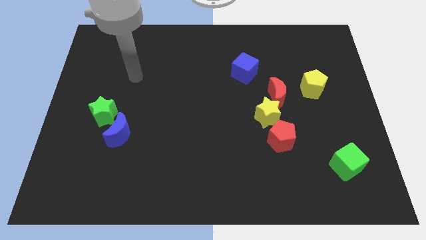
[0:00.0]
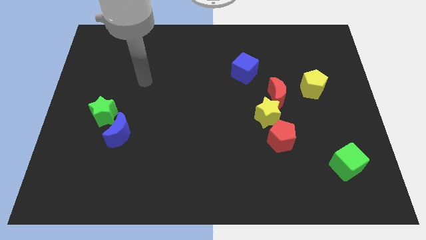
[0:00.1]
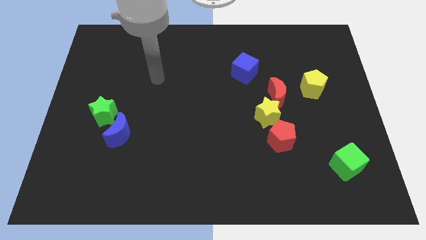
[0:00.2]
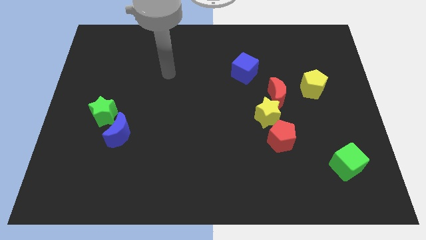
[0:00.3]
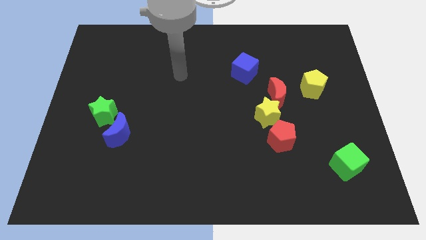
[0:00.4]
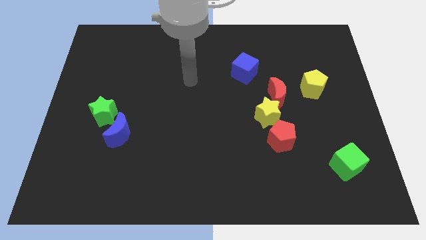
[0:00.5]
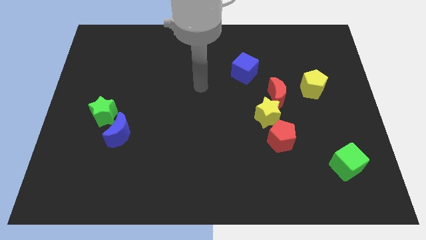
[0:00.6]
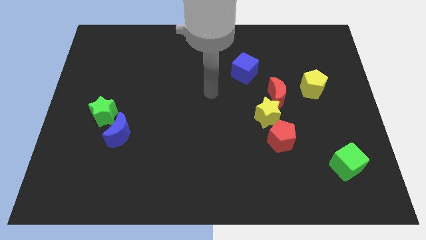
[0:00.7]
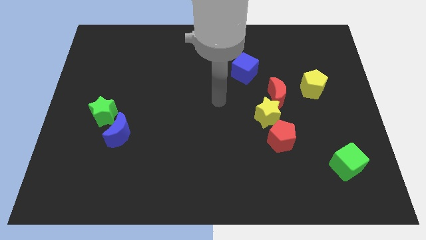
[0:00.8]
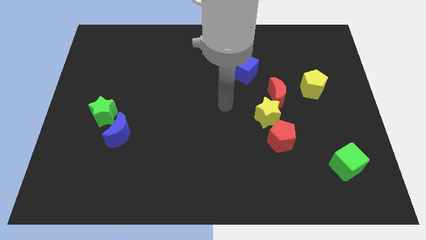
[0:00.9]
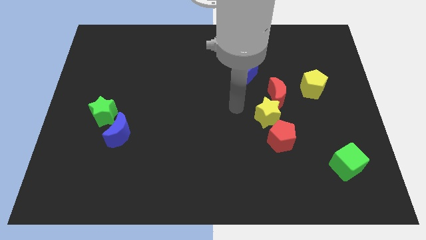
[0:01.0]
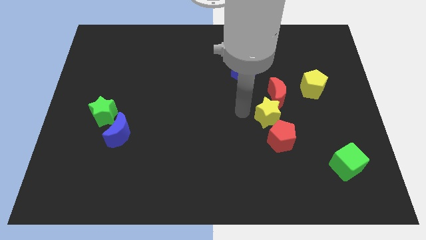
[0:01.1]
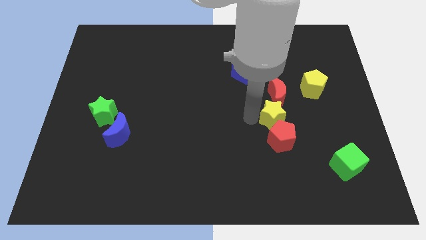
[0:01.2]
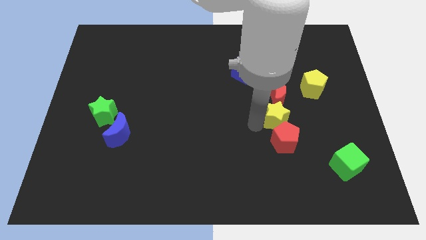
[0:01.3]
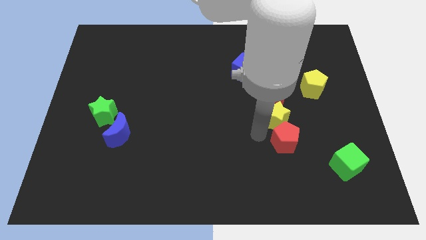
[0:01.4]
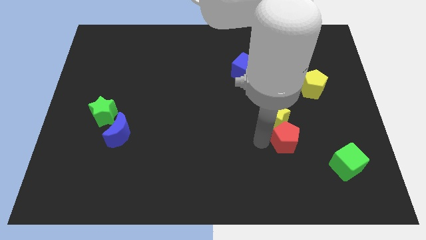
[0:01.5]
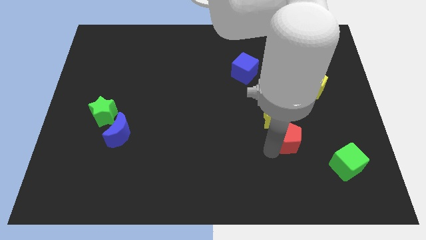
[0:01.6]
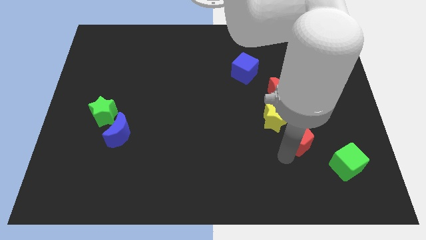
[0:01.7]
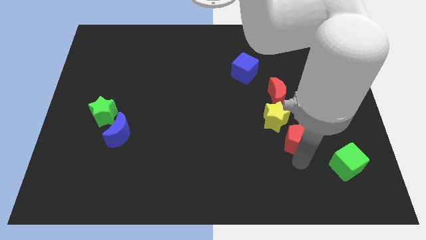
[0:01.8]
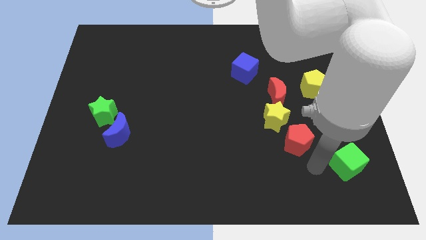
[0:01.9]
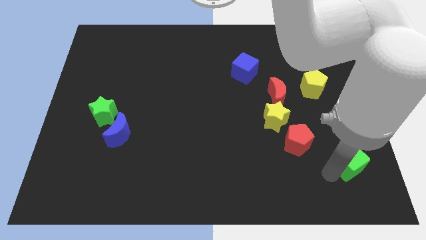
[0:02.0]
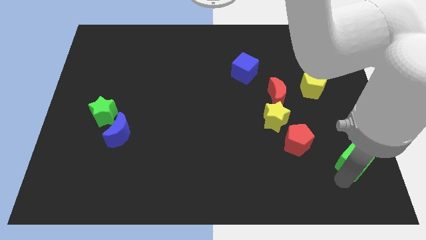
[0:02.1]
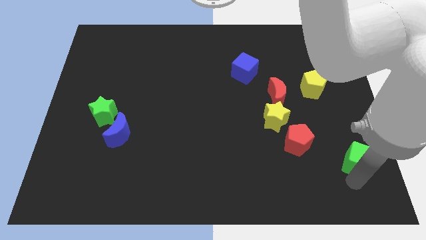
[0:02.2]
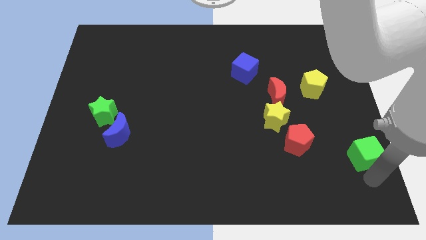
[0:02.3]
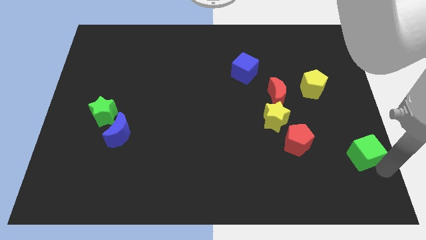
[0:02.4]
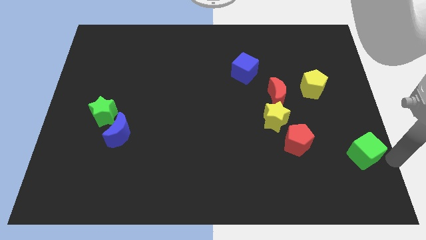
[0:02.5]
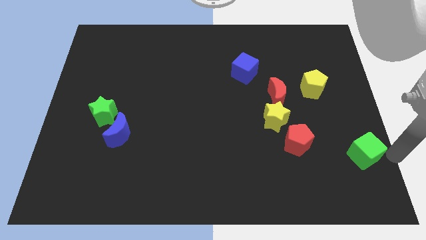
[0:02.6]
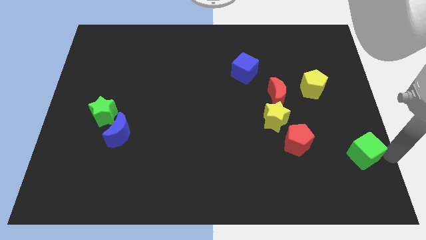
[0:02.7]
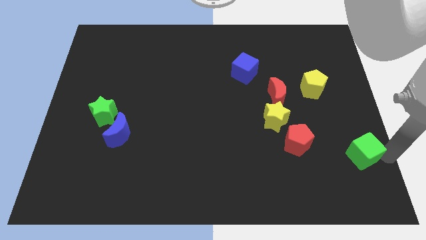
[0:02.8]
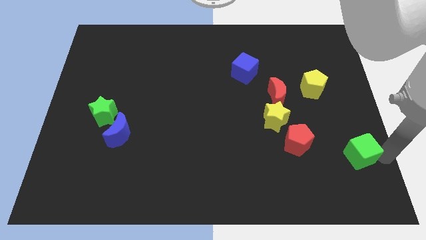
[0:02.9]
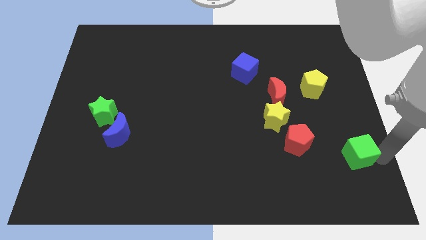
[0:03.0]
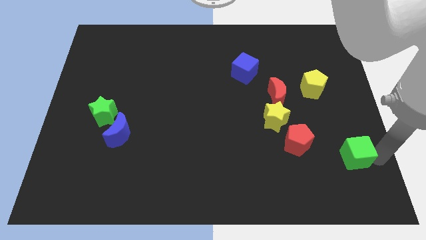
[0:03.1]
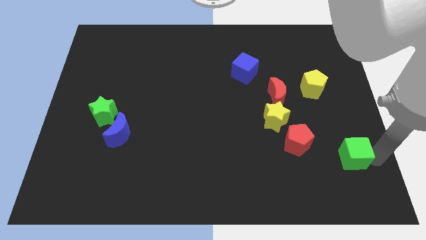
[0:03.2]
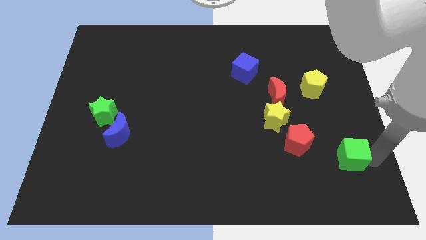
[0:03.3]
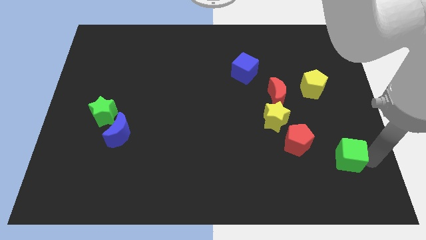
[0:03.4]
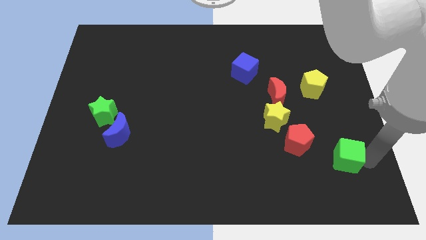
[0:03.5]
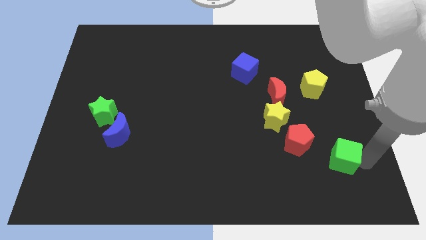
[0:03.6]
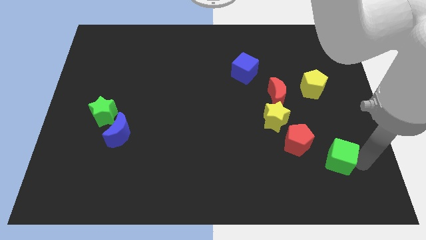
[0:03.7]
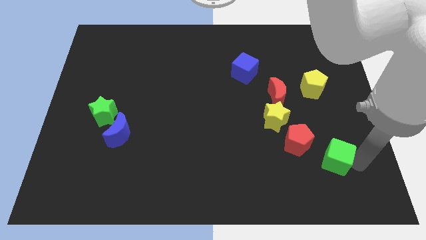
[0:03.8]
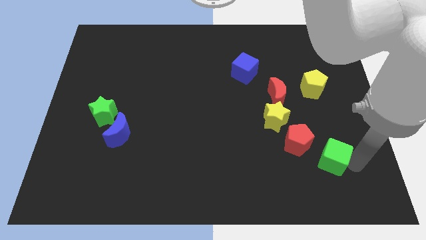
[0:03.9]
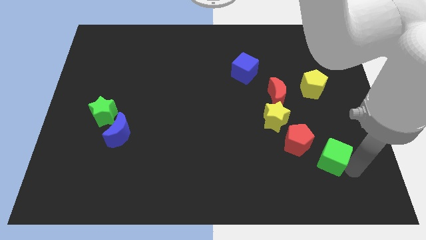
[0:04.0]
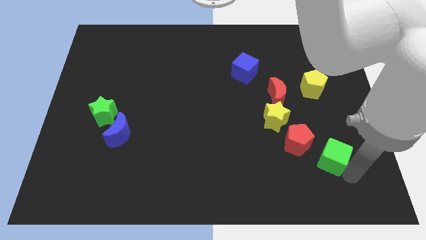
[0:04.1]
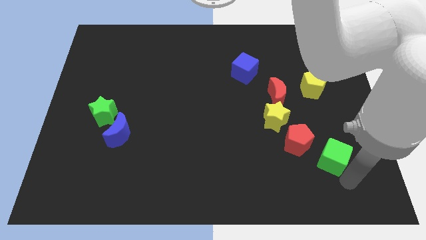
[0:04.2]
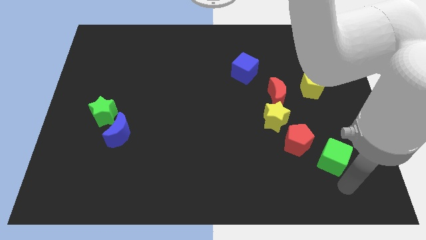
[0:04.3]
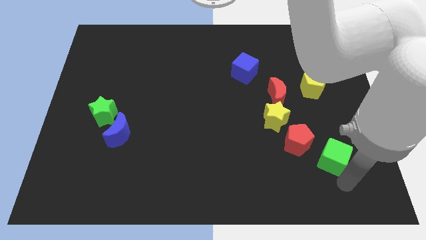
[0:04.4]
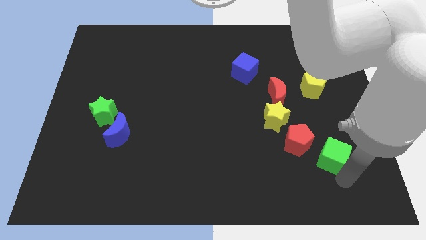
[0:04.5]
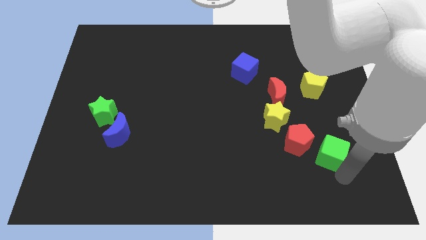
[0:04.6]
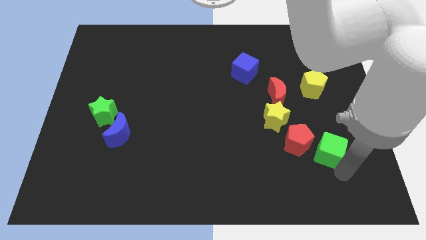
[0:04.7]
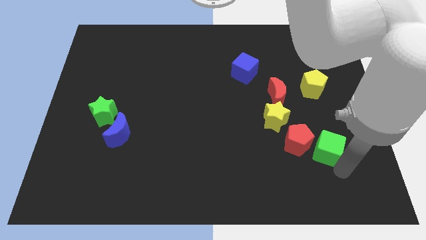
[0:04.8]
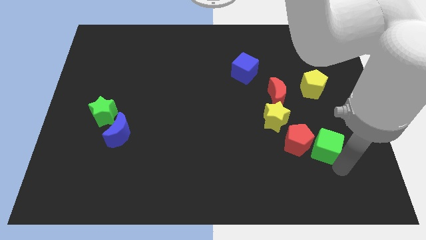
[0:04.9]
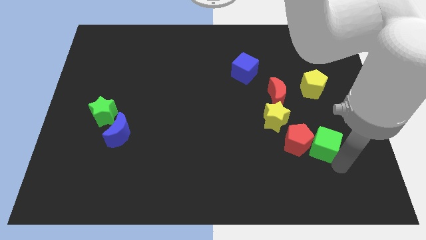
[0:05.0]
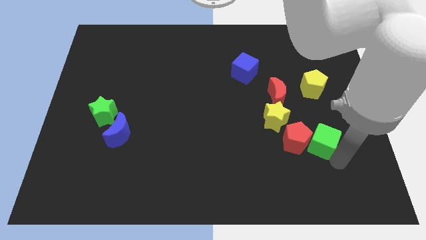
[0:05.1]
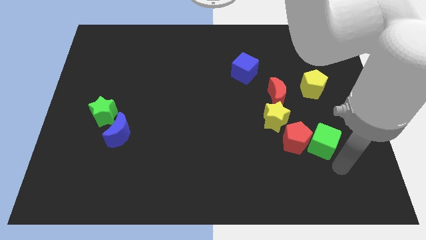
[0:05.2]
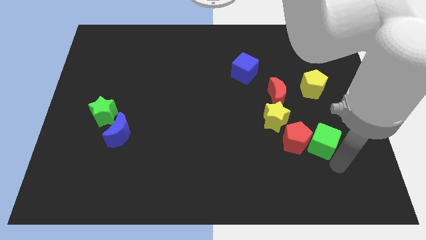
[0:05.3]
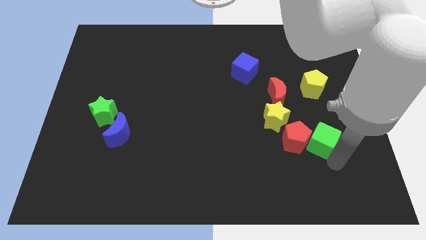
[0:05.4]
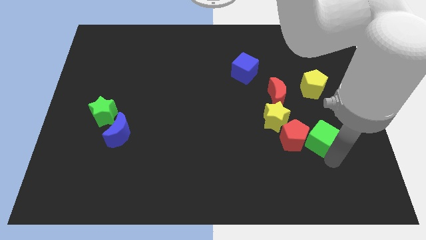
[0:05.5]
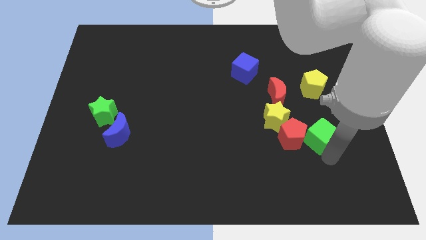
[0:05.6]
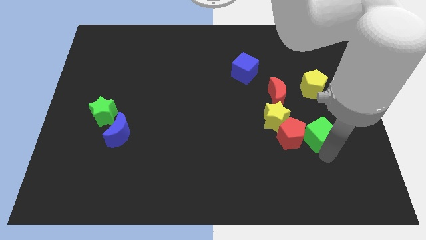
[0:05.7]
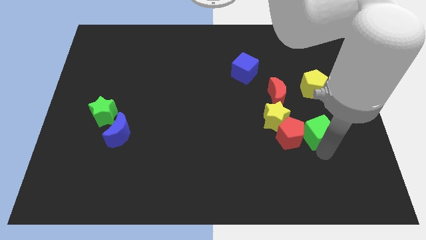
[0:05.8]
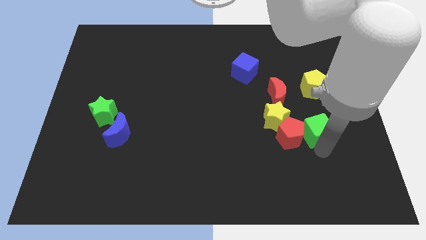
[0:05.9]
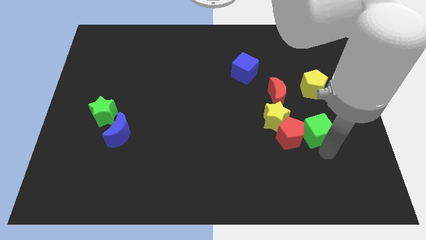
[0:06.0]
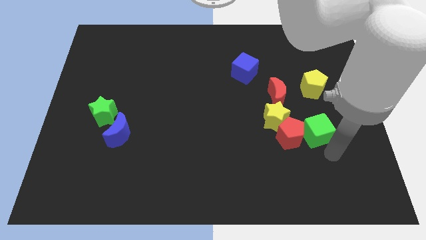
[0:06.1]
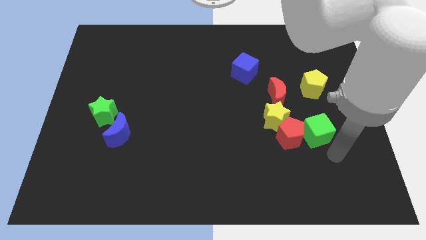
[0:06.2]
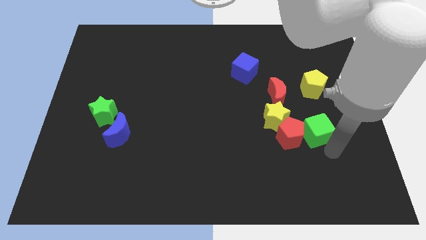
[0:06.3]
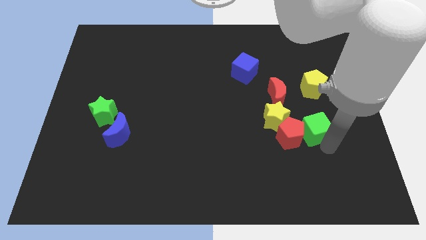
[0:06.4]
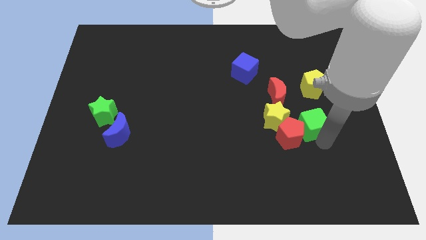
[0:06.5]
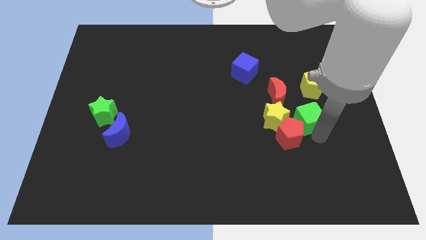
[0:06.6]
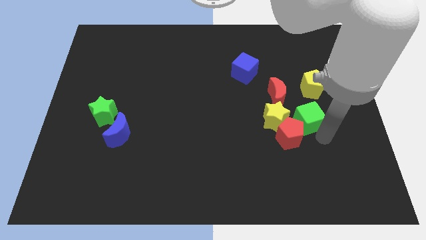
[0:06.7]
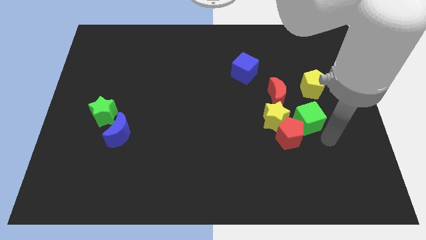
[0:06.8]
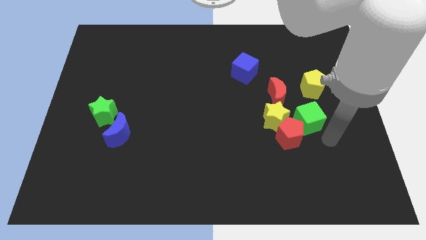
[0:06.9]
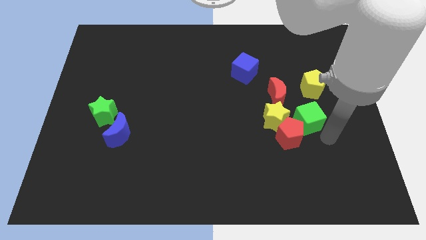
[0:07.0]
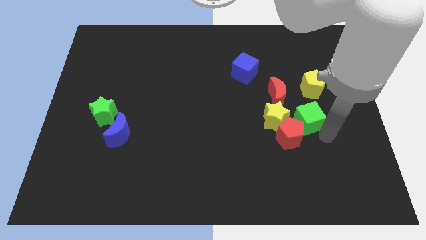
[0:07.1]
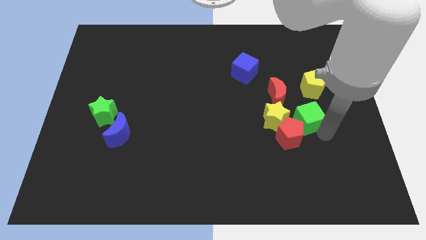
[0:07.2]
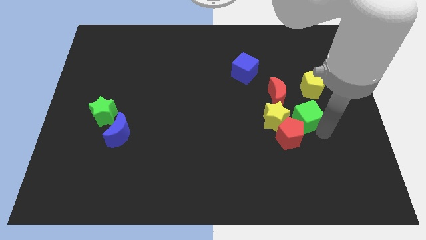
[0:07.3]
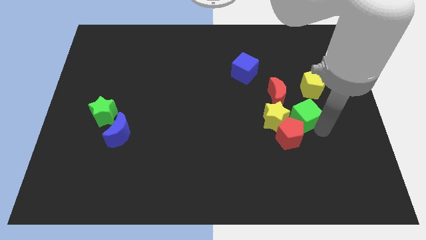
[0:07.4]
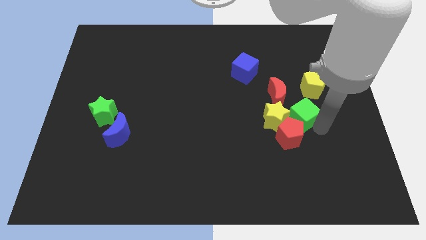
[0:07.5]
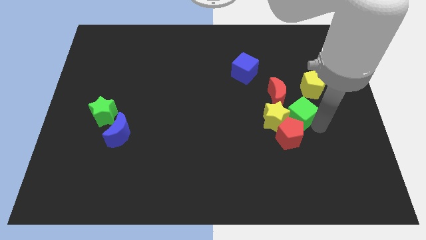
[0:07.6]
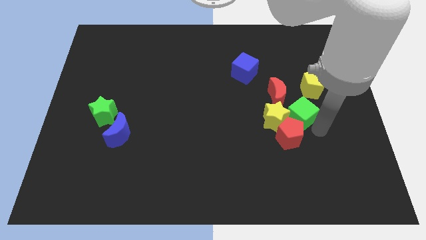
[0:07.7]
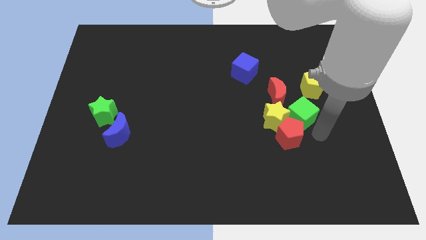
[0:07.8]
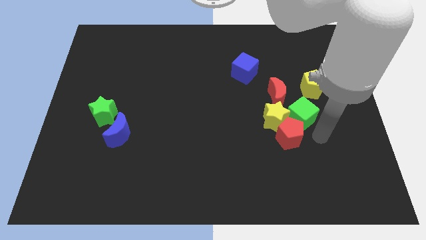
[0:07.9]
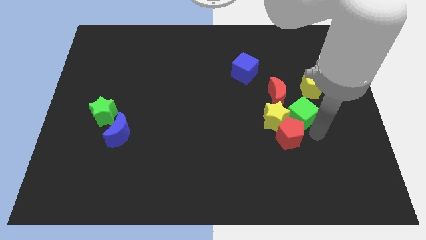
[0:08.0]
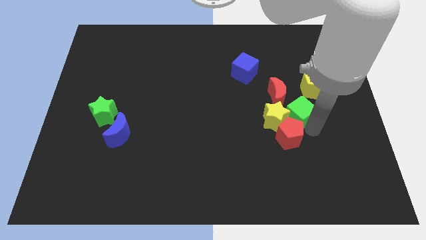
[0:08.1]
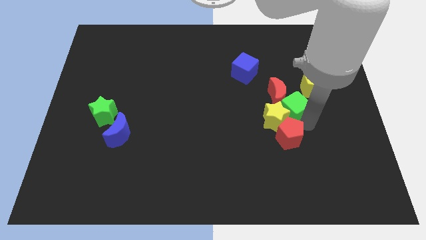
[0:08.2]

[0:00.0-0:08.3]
move the green cube towards the red moon
